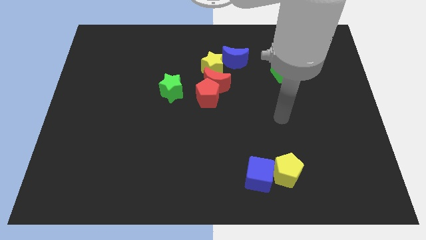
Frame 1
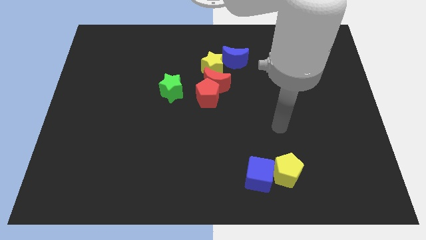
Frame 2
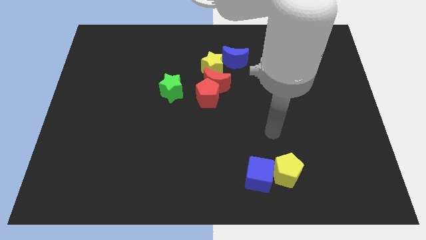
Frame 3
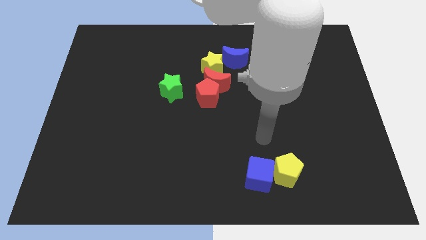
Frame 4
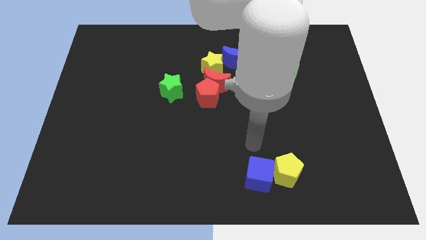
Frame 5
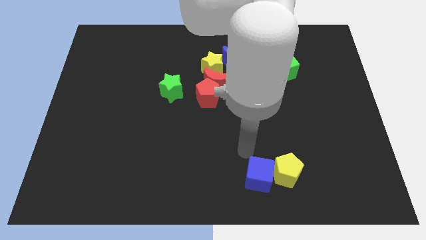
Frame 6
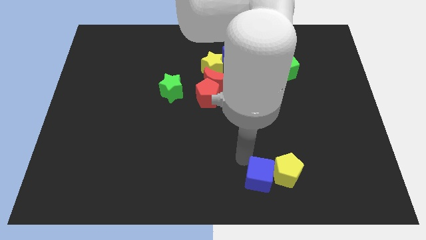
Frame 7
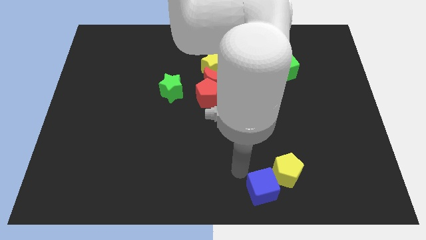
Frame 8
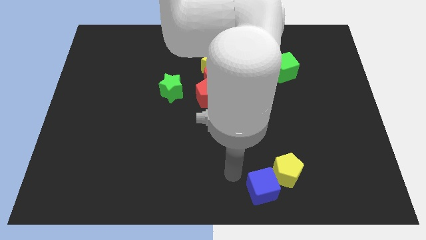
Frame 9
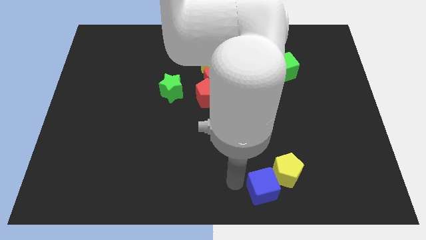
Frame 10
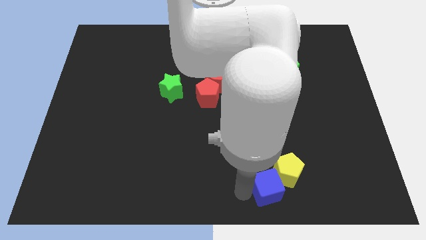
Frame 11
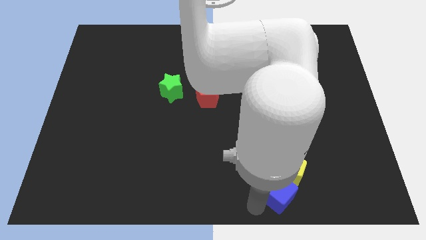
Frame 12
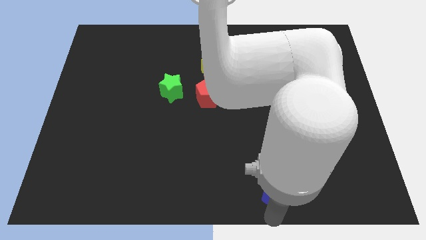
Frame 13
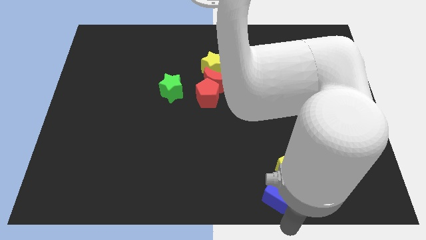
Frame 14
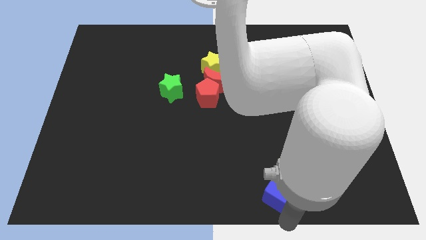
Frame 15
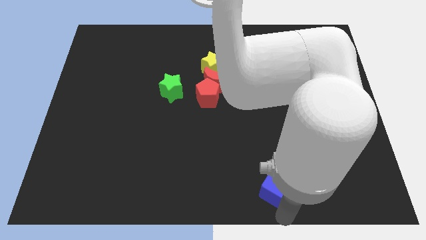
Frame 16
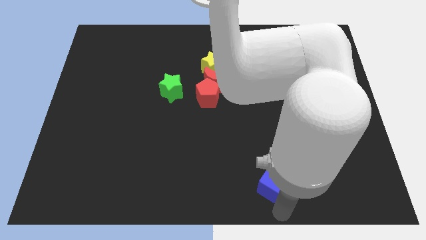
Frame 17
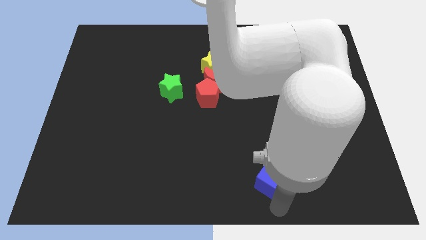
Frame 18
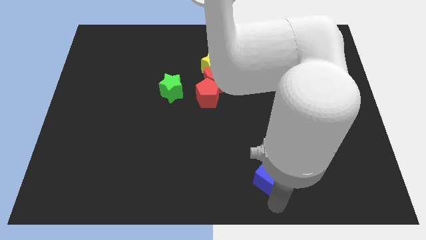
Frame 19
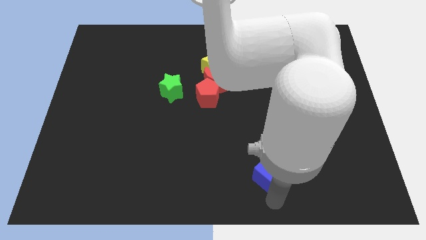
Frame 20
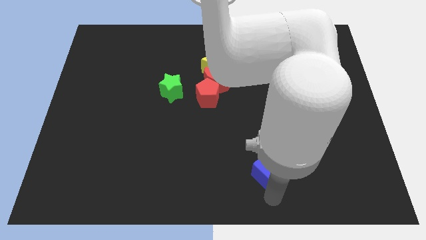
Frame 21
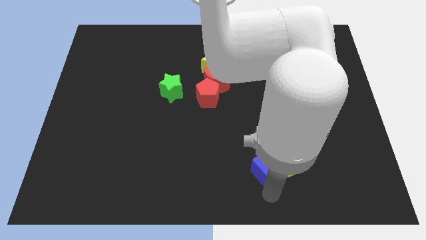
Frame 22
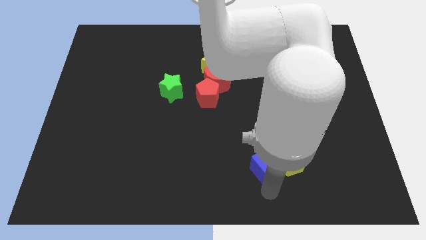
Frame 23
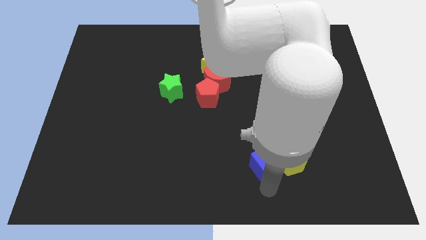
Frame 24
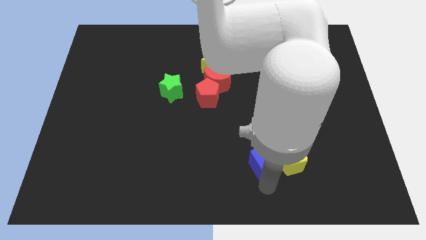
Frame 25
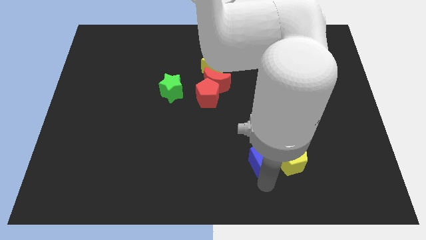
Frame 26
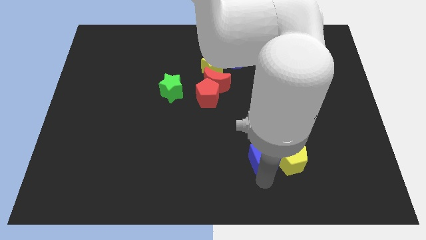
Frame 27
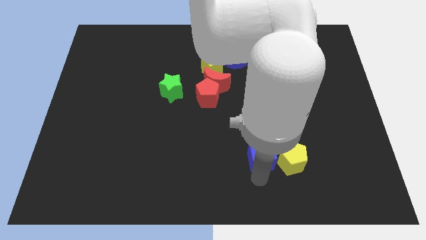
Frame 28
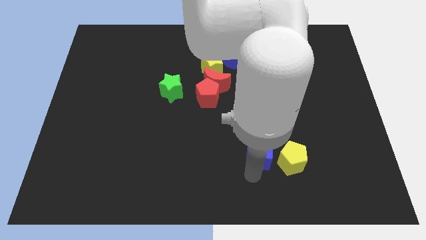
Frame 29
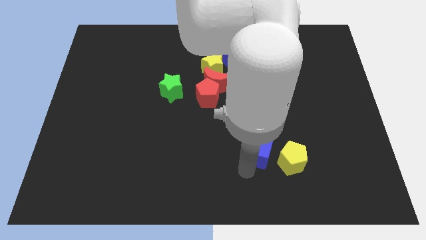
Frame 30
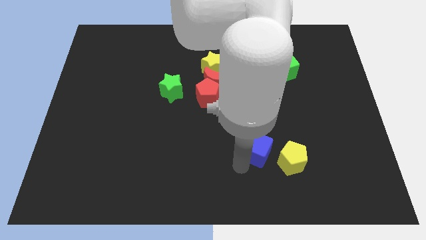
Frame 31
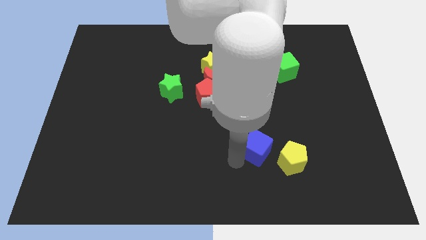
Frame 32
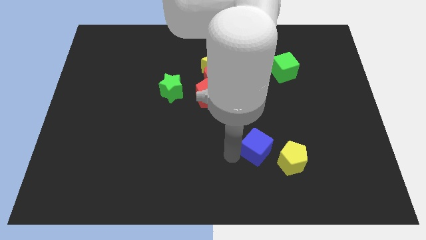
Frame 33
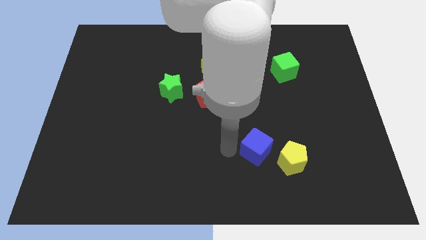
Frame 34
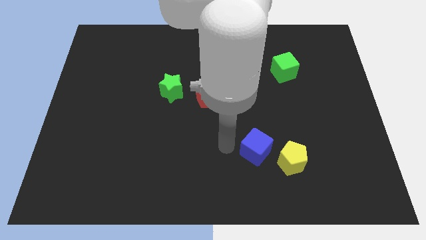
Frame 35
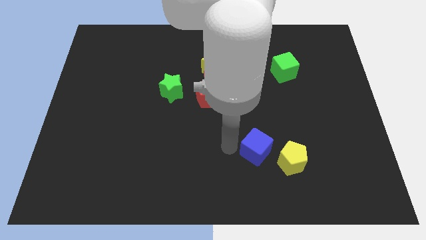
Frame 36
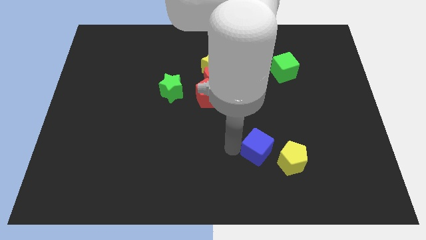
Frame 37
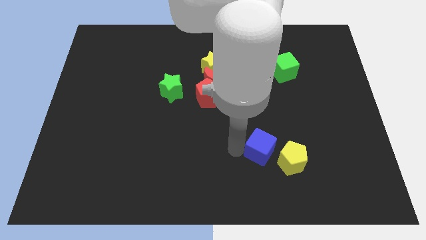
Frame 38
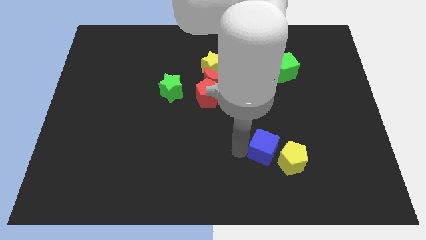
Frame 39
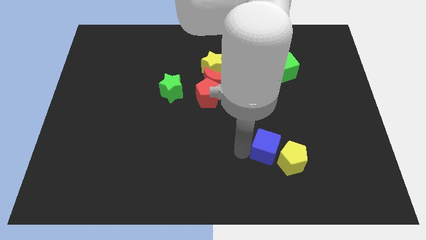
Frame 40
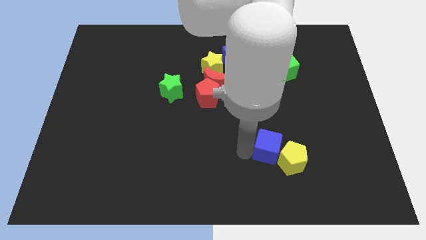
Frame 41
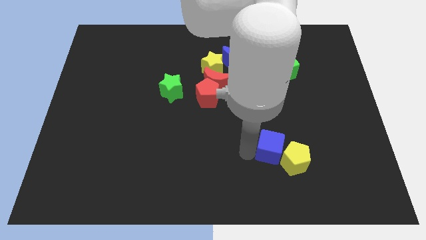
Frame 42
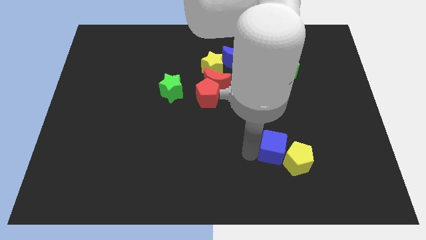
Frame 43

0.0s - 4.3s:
slightly push the blue cube upwards and right

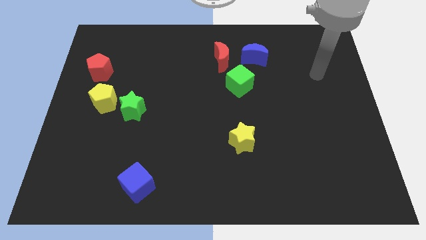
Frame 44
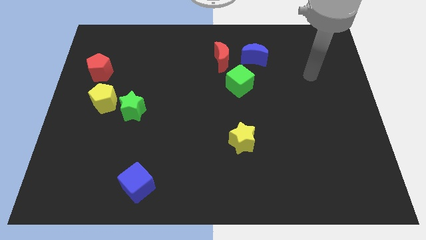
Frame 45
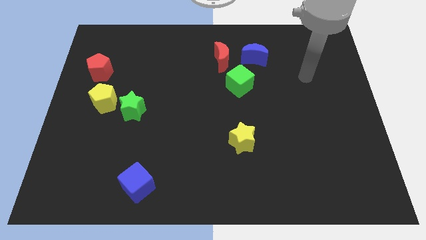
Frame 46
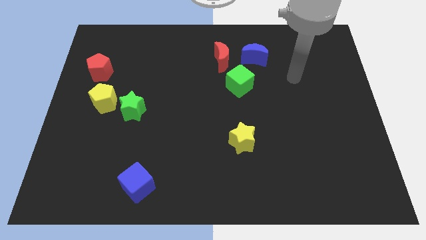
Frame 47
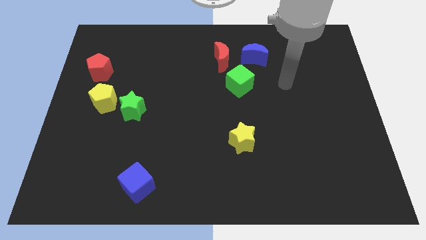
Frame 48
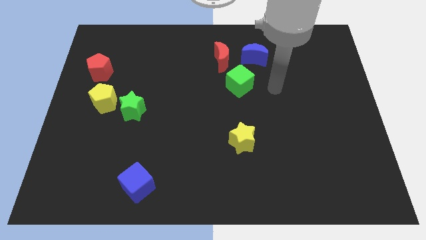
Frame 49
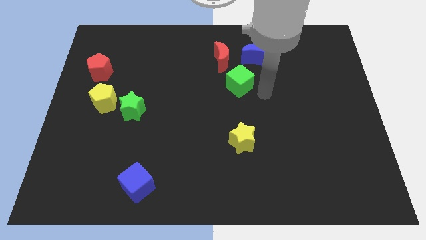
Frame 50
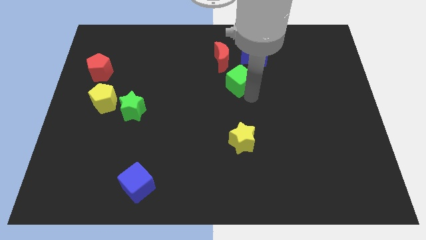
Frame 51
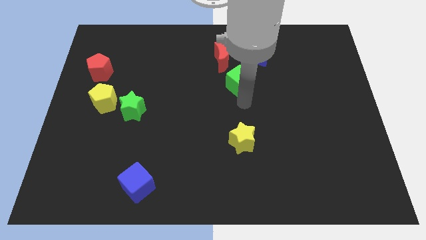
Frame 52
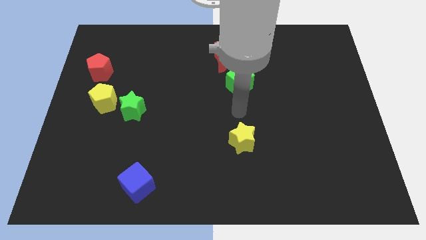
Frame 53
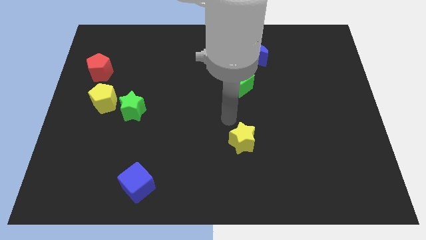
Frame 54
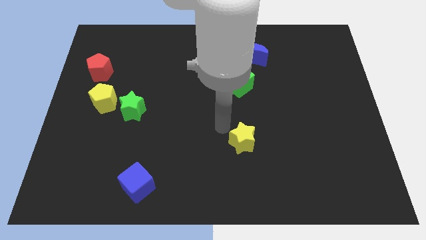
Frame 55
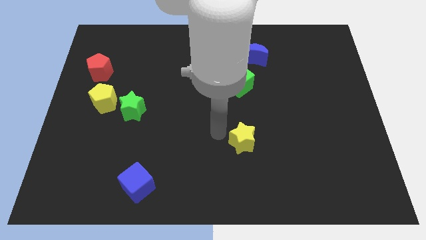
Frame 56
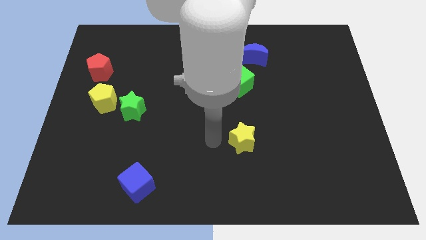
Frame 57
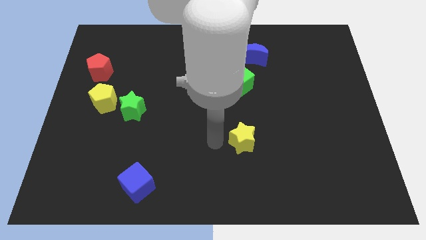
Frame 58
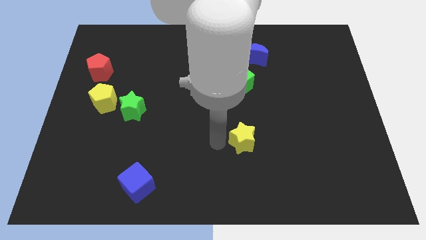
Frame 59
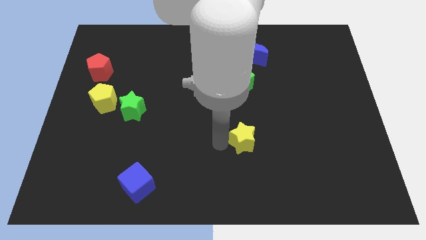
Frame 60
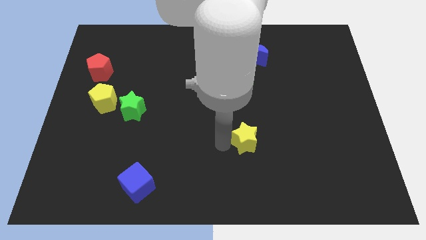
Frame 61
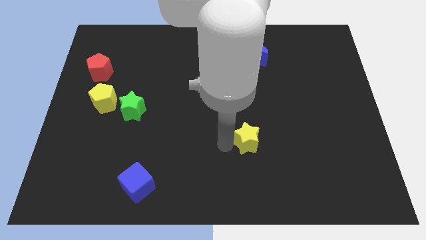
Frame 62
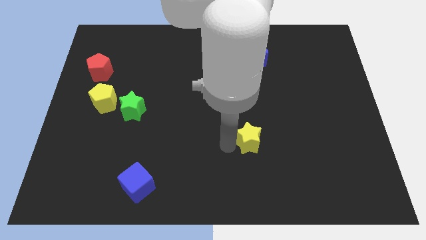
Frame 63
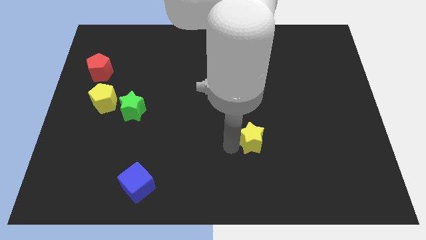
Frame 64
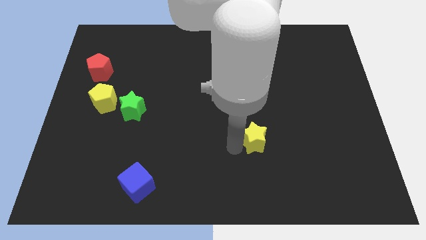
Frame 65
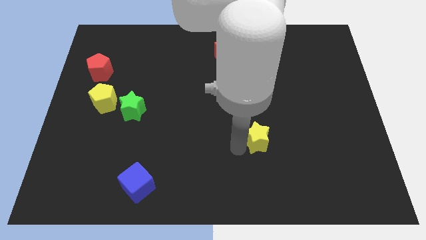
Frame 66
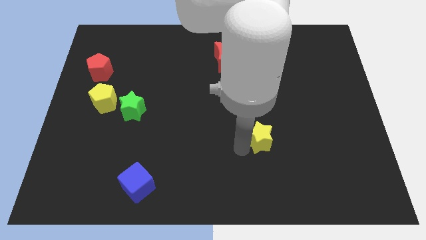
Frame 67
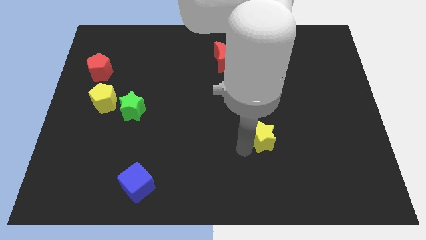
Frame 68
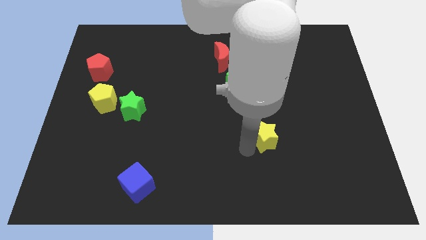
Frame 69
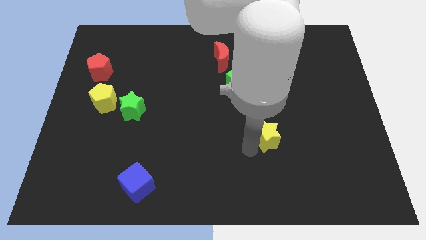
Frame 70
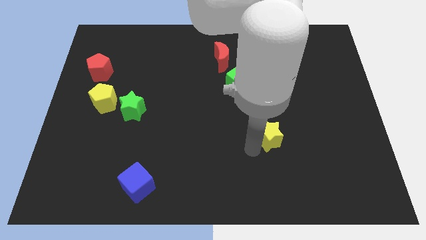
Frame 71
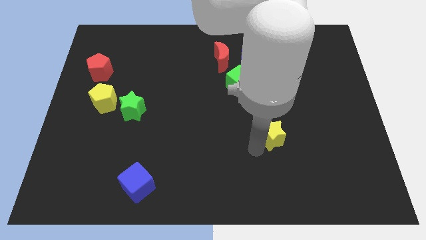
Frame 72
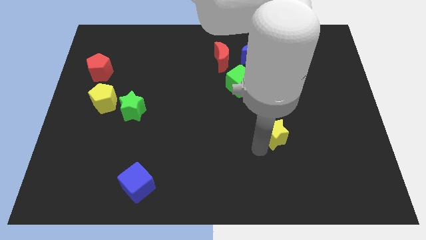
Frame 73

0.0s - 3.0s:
slide the yellow star a bit to the right

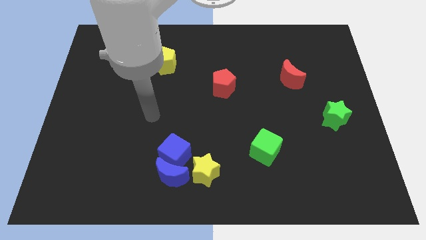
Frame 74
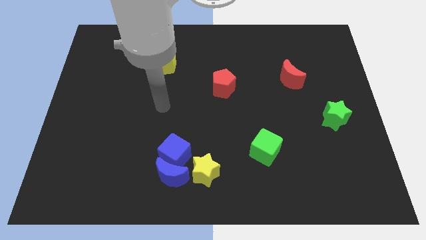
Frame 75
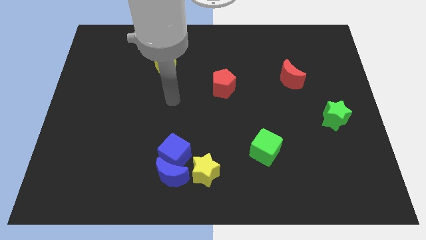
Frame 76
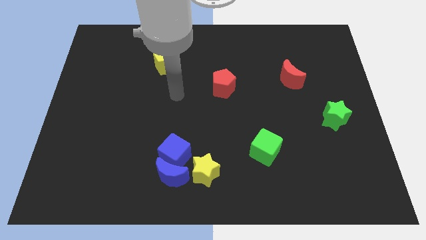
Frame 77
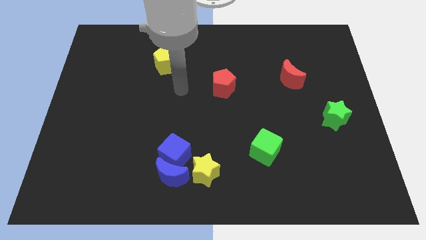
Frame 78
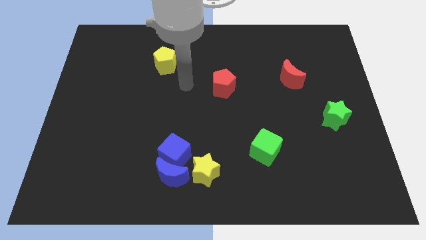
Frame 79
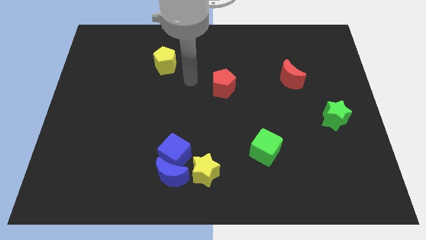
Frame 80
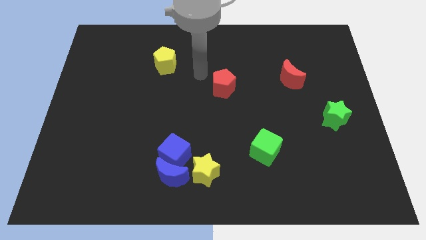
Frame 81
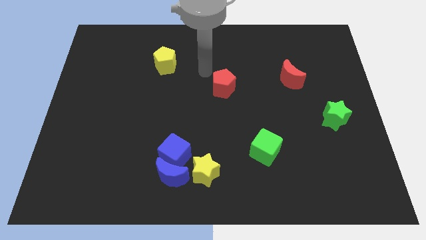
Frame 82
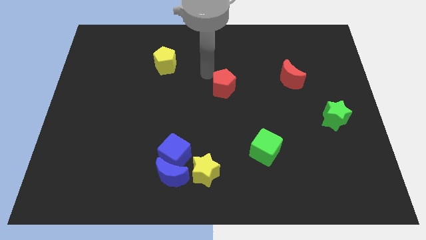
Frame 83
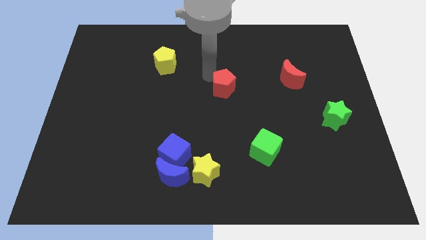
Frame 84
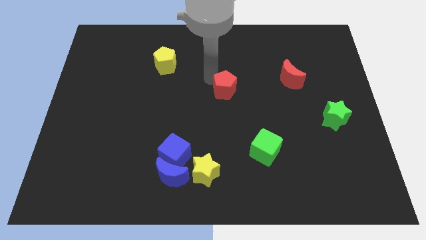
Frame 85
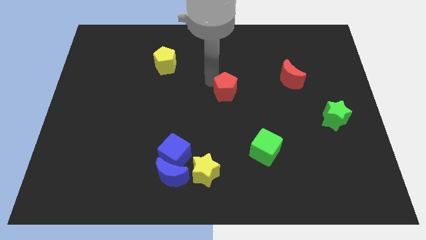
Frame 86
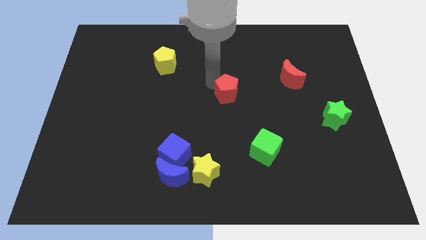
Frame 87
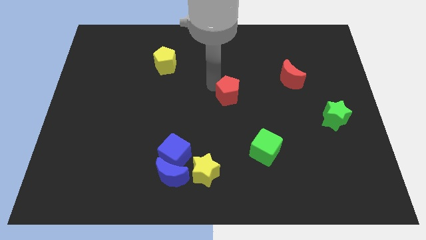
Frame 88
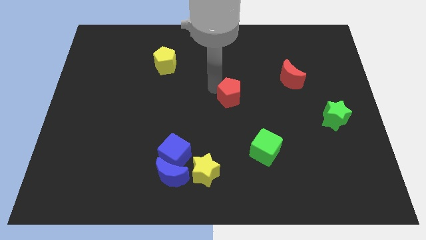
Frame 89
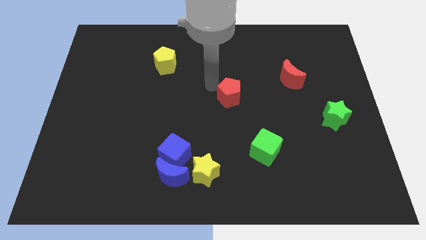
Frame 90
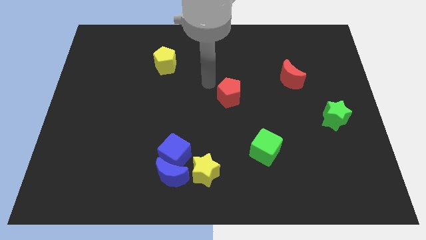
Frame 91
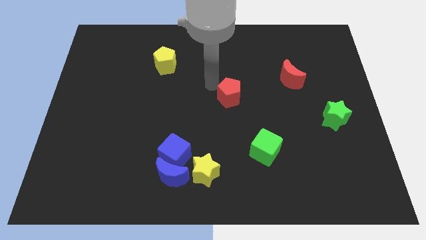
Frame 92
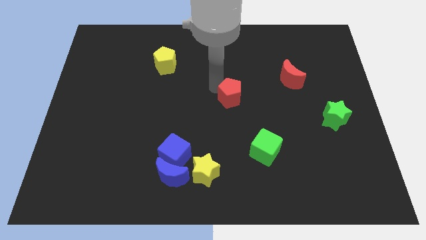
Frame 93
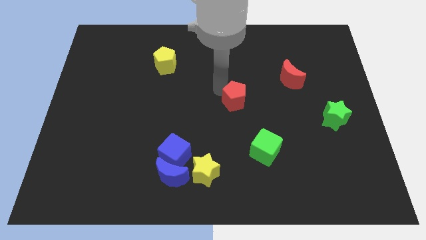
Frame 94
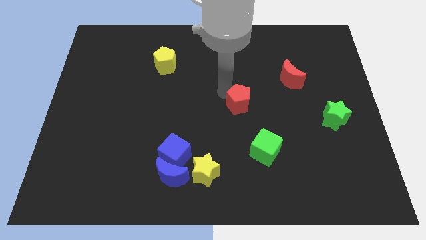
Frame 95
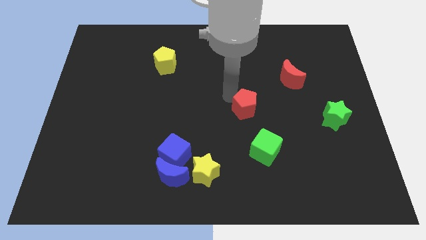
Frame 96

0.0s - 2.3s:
slightly move the red pentagon down and to the right diagonally
